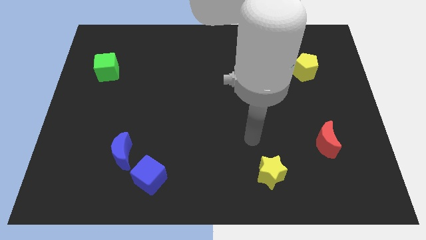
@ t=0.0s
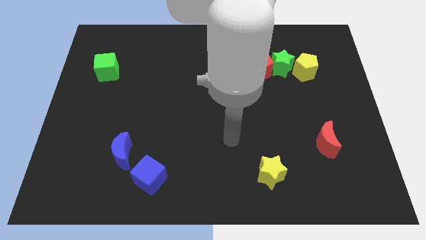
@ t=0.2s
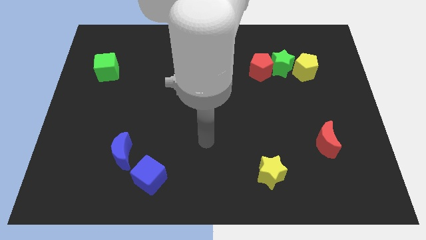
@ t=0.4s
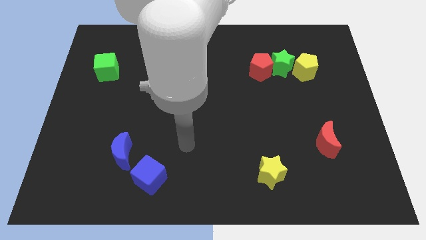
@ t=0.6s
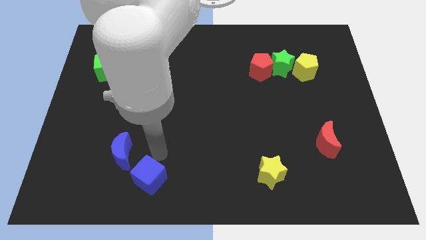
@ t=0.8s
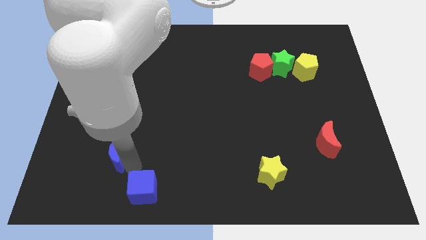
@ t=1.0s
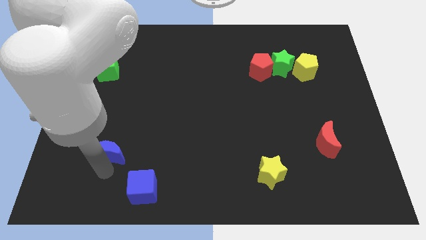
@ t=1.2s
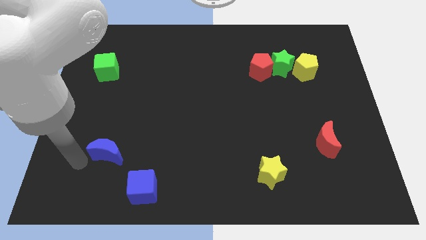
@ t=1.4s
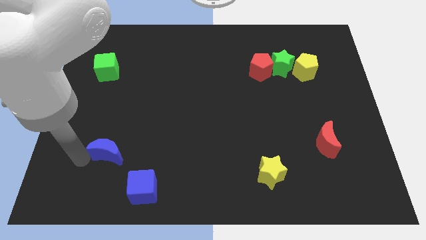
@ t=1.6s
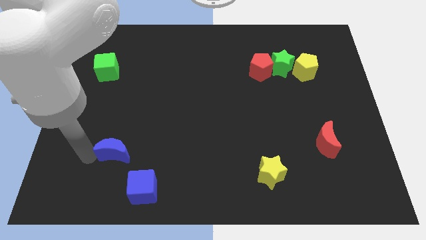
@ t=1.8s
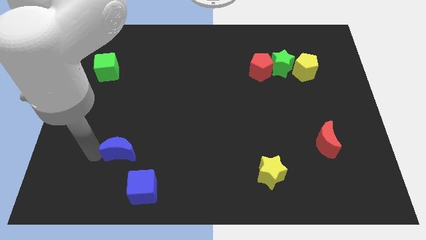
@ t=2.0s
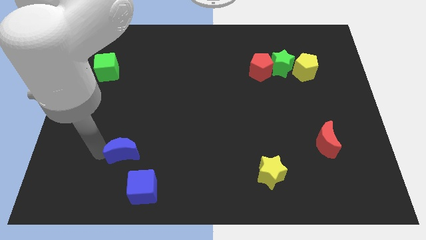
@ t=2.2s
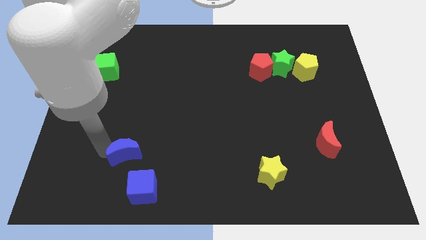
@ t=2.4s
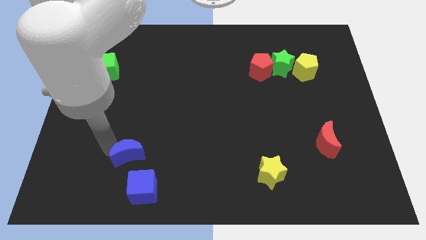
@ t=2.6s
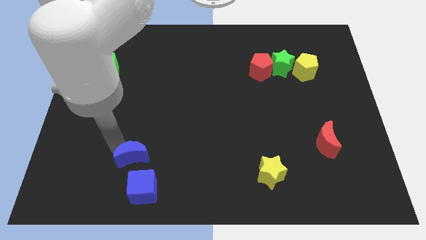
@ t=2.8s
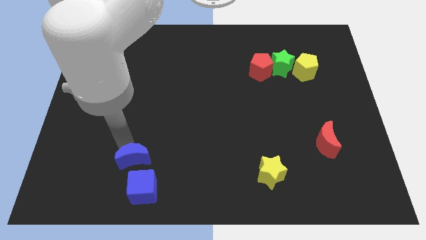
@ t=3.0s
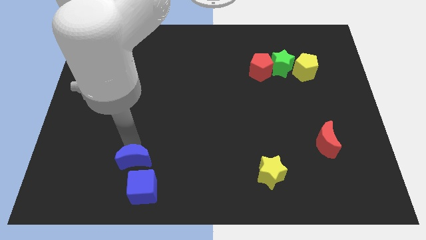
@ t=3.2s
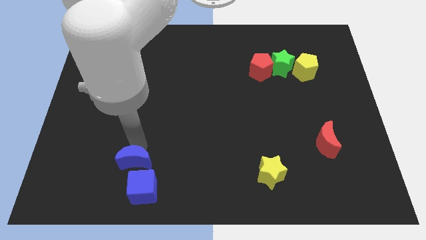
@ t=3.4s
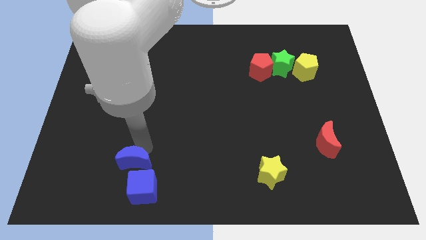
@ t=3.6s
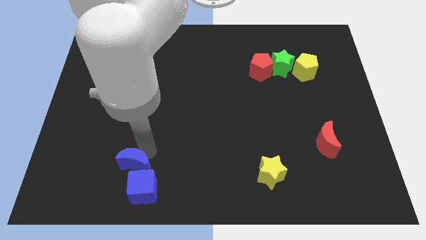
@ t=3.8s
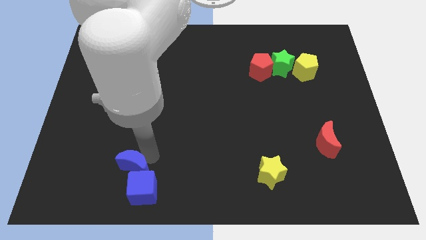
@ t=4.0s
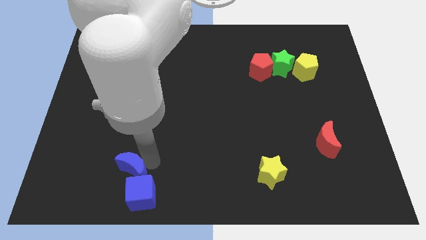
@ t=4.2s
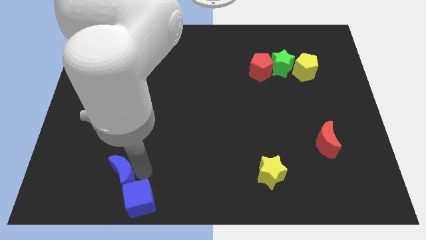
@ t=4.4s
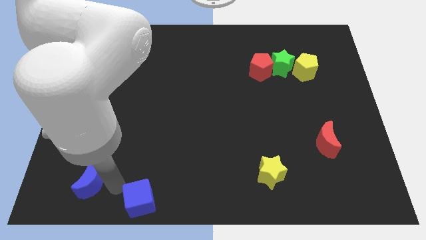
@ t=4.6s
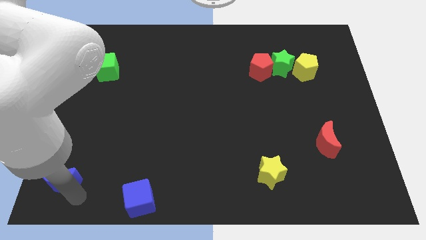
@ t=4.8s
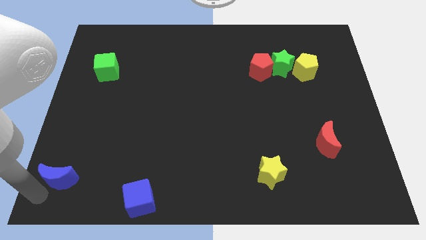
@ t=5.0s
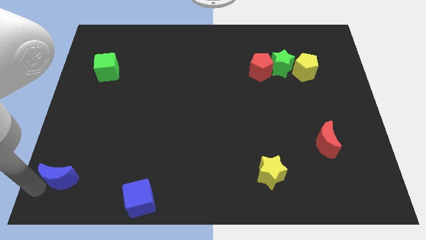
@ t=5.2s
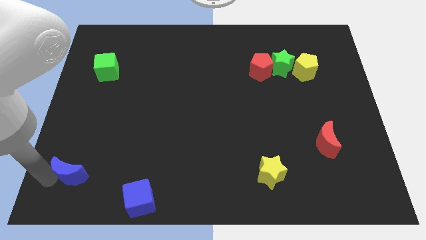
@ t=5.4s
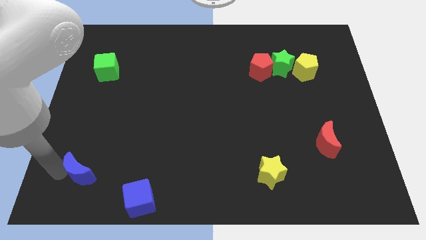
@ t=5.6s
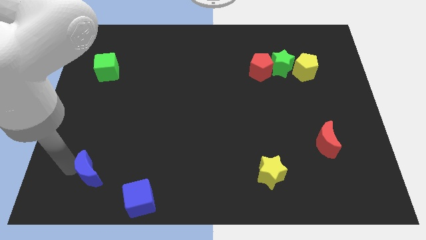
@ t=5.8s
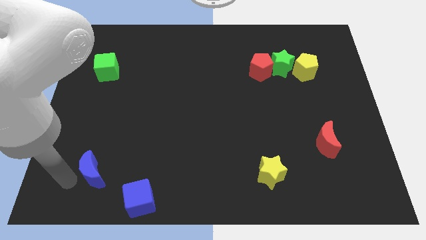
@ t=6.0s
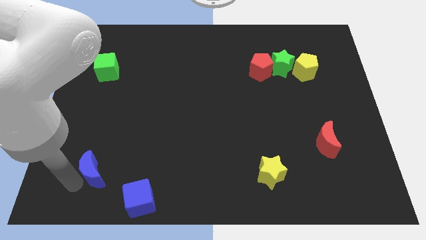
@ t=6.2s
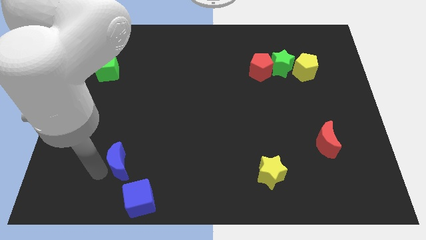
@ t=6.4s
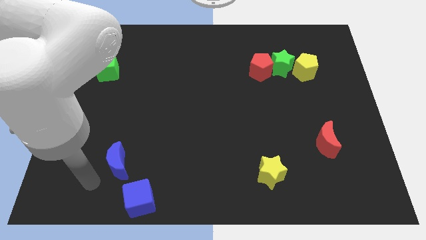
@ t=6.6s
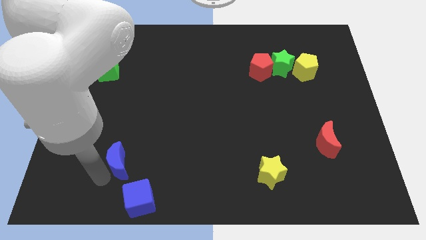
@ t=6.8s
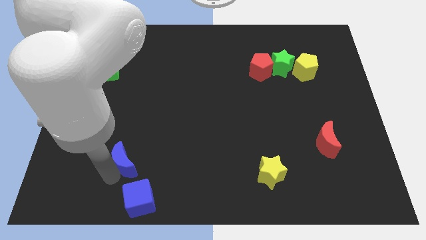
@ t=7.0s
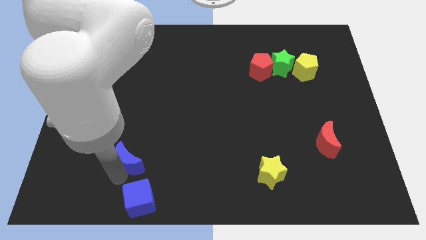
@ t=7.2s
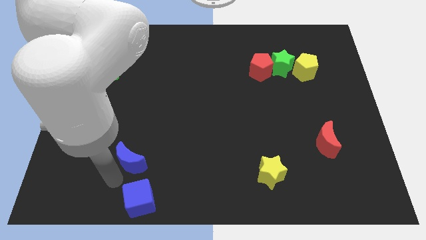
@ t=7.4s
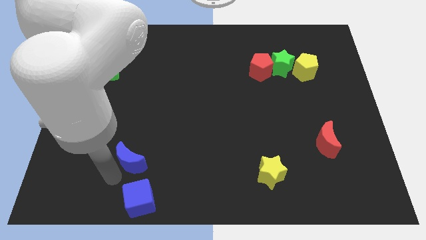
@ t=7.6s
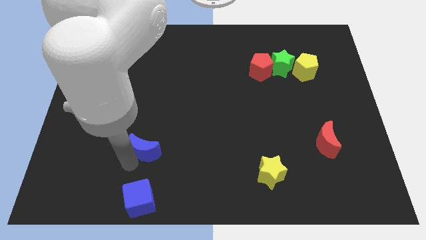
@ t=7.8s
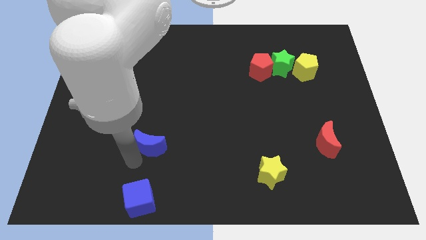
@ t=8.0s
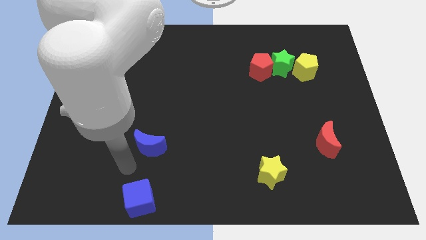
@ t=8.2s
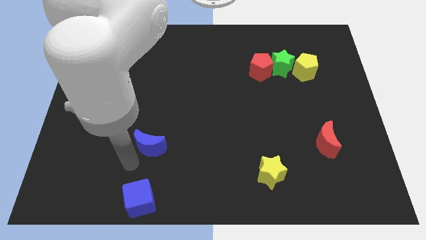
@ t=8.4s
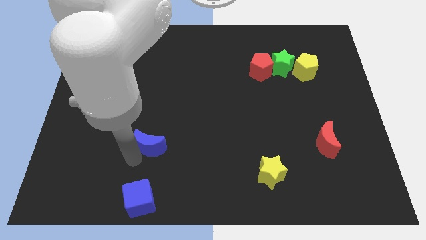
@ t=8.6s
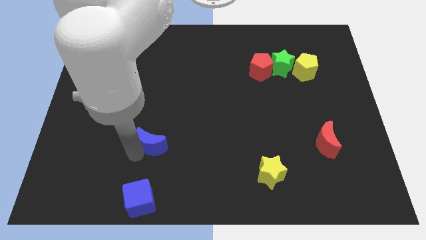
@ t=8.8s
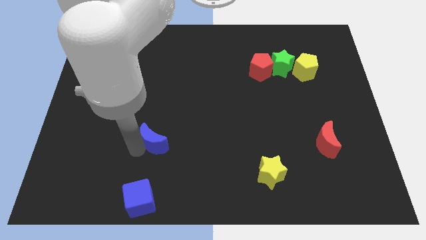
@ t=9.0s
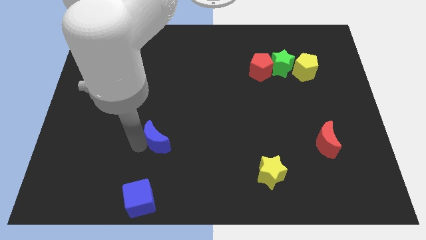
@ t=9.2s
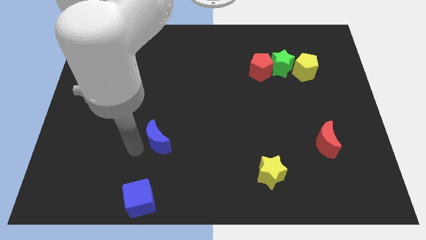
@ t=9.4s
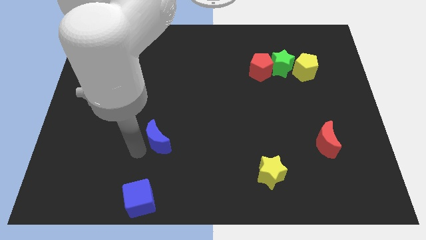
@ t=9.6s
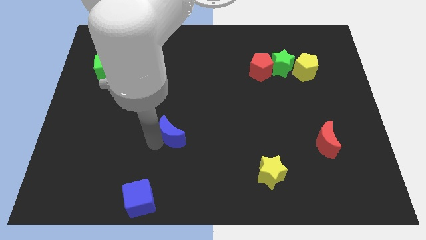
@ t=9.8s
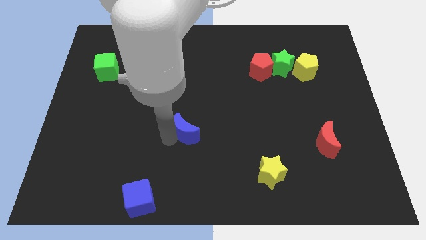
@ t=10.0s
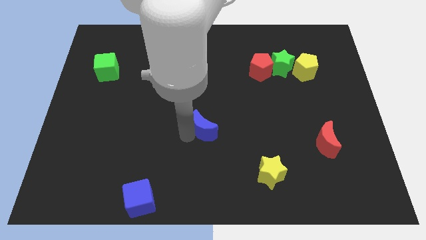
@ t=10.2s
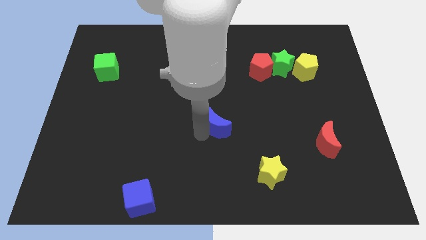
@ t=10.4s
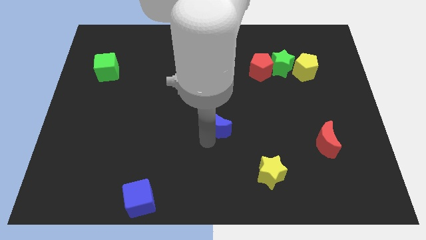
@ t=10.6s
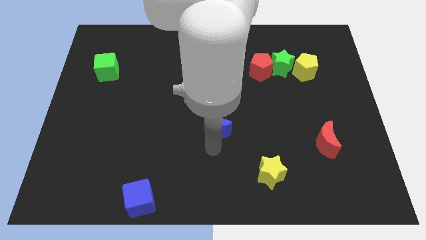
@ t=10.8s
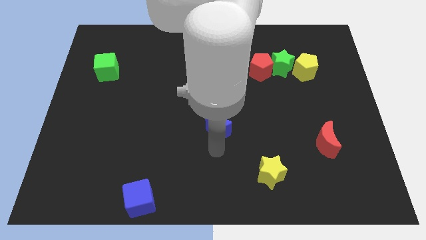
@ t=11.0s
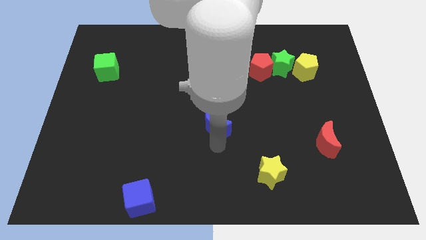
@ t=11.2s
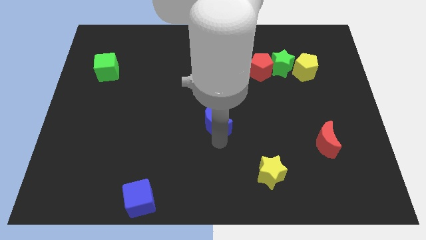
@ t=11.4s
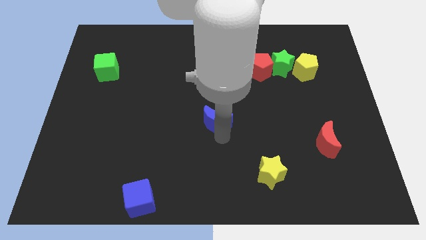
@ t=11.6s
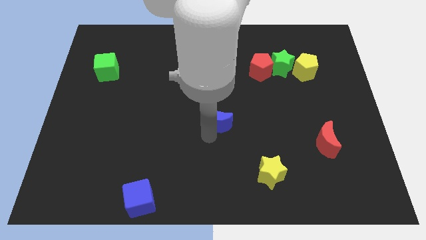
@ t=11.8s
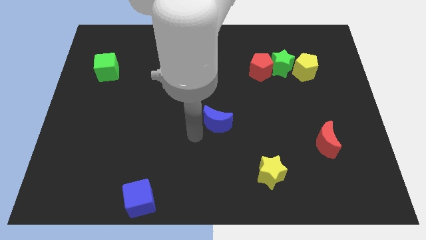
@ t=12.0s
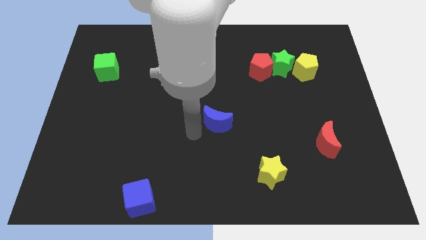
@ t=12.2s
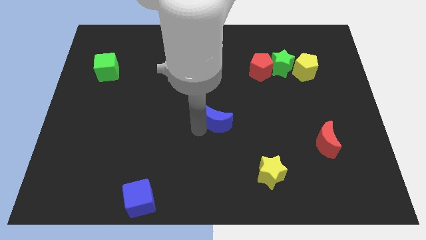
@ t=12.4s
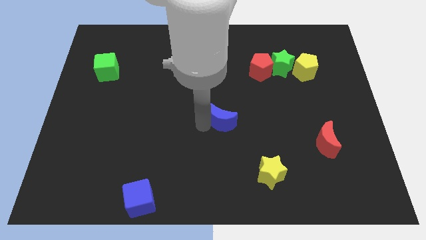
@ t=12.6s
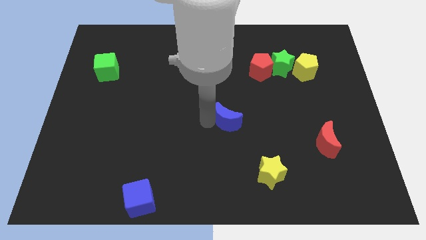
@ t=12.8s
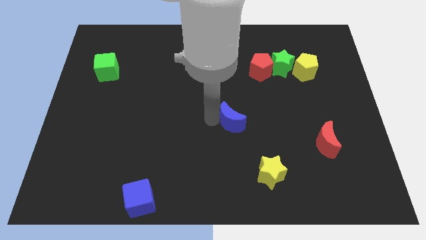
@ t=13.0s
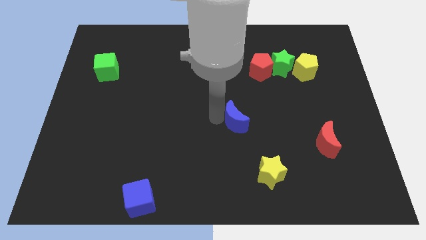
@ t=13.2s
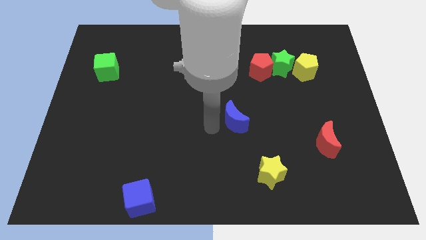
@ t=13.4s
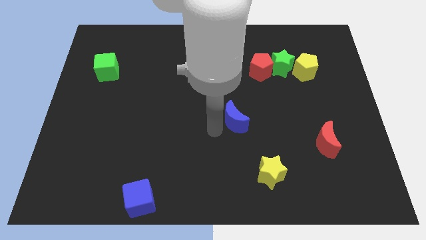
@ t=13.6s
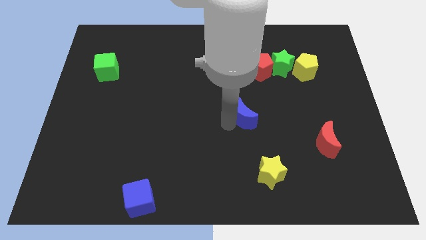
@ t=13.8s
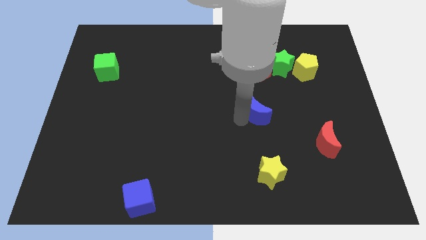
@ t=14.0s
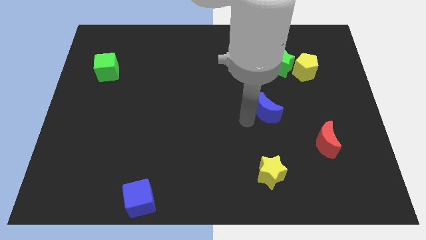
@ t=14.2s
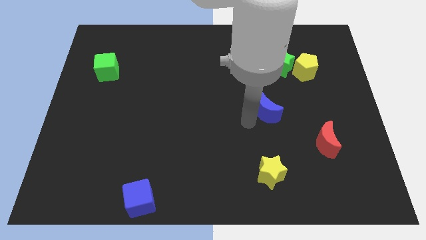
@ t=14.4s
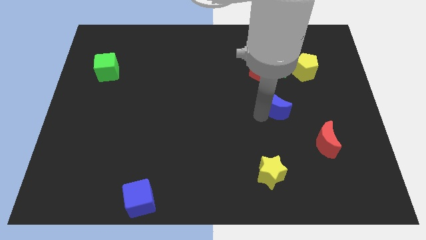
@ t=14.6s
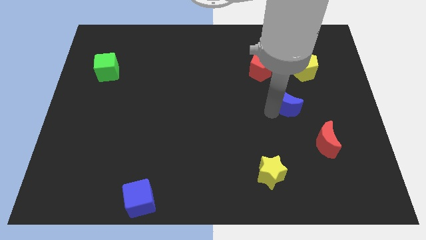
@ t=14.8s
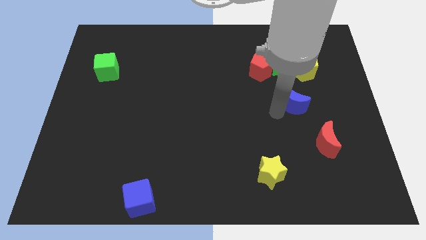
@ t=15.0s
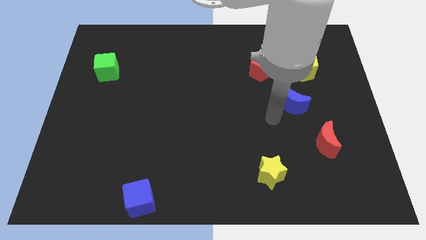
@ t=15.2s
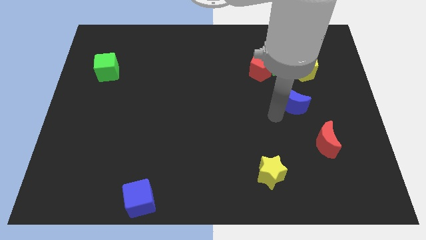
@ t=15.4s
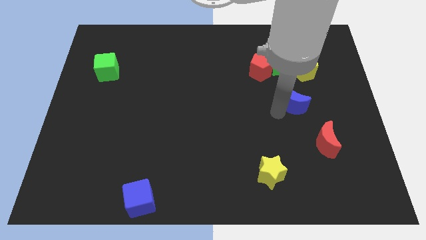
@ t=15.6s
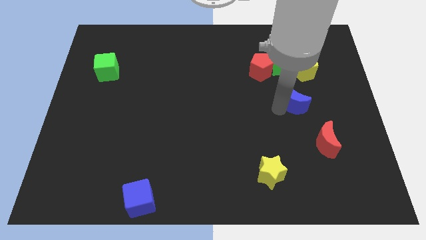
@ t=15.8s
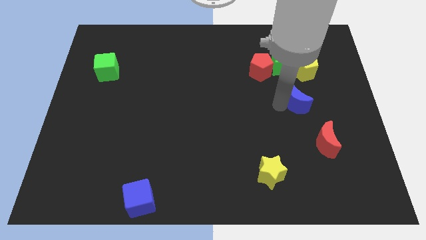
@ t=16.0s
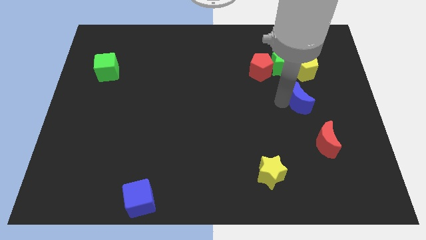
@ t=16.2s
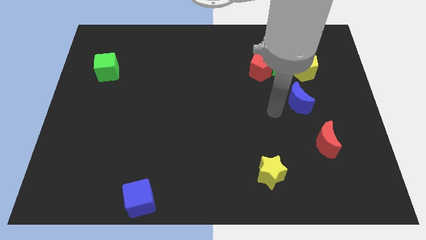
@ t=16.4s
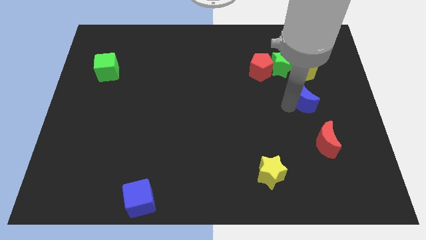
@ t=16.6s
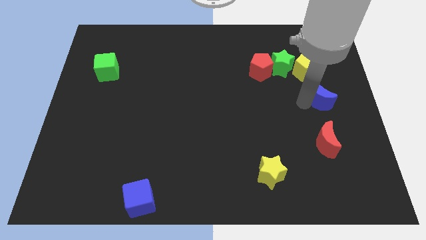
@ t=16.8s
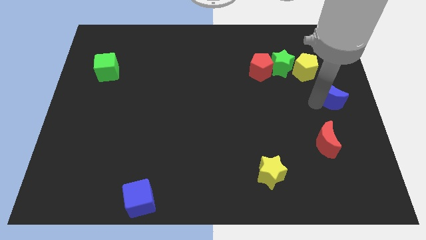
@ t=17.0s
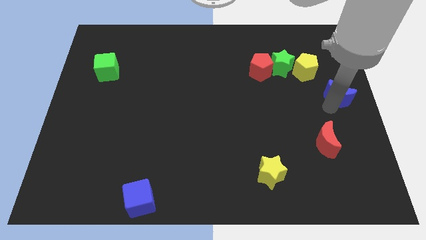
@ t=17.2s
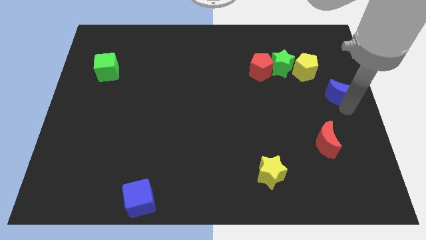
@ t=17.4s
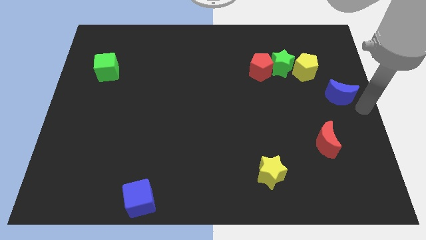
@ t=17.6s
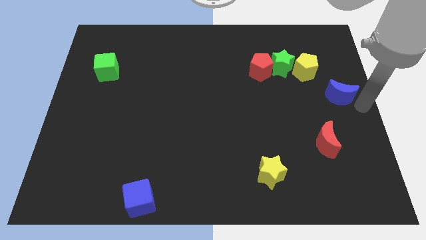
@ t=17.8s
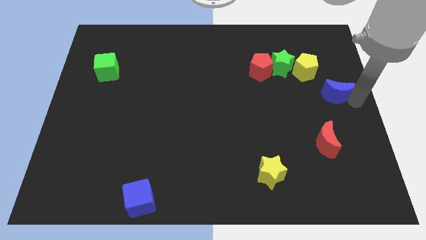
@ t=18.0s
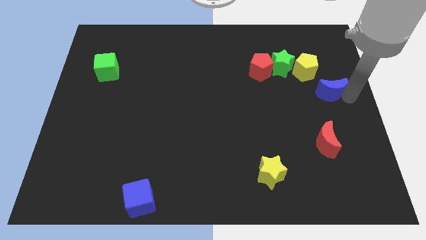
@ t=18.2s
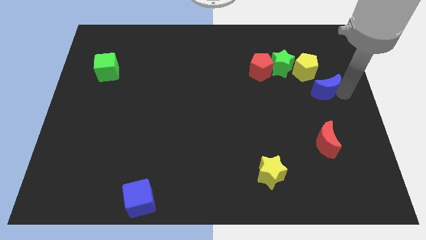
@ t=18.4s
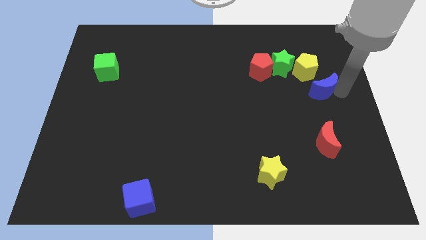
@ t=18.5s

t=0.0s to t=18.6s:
put the blue moon to the bottom right side of the green star
